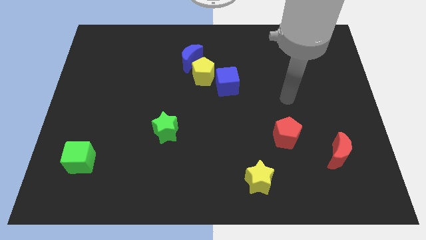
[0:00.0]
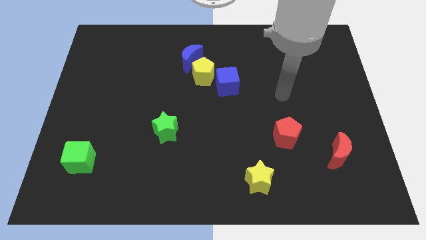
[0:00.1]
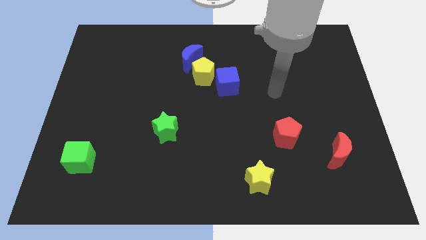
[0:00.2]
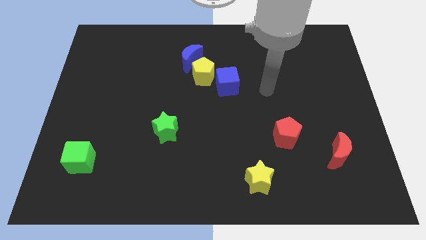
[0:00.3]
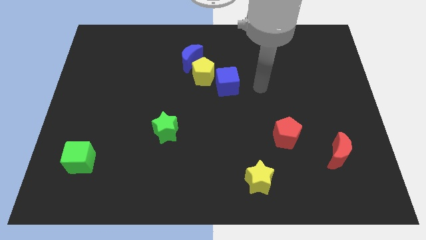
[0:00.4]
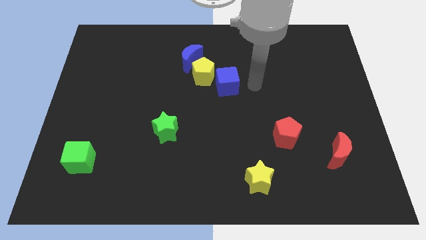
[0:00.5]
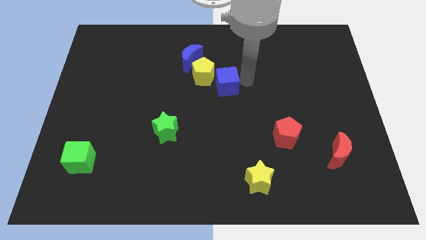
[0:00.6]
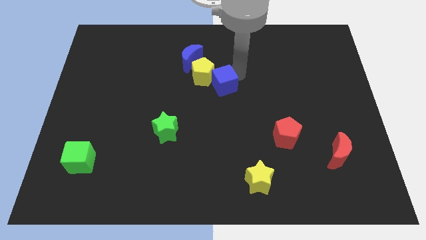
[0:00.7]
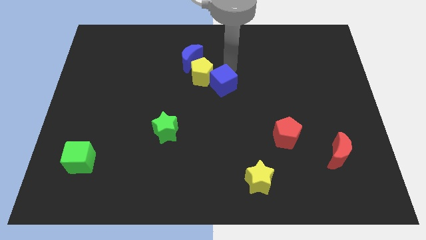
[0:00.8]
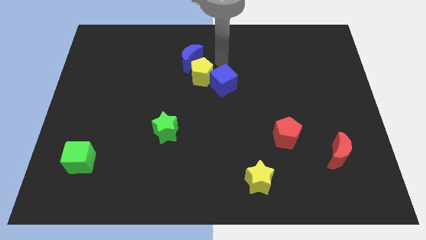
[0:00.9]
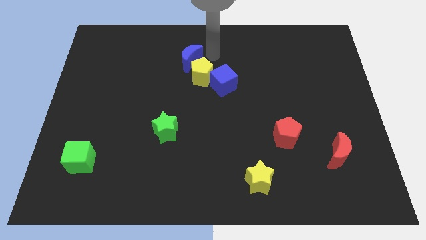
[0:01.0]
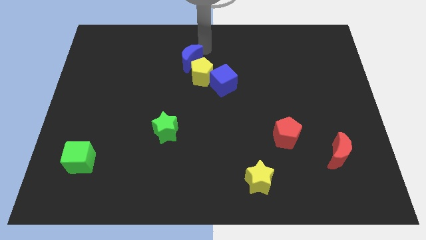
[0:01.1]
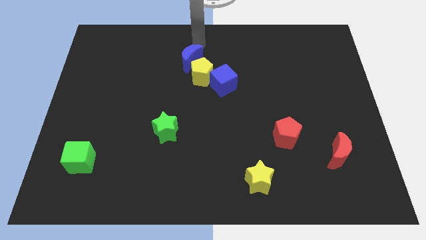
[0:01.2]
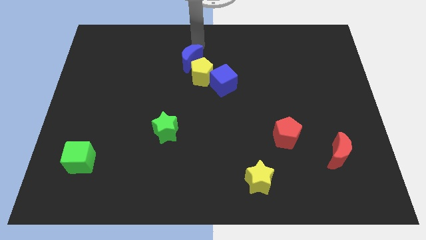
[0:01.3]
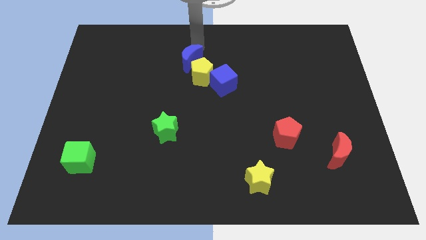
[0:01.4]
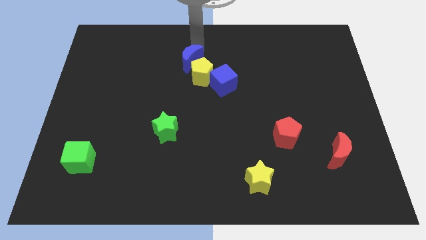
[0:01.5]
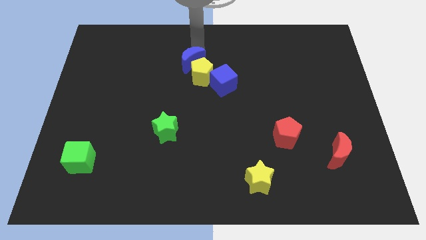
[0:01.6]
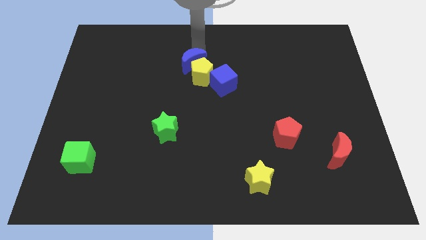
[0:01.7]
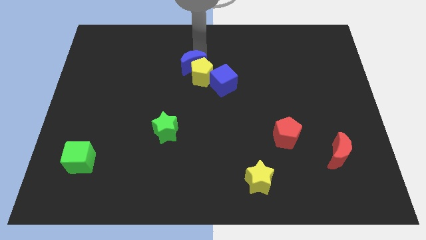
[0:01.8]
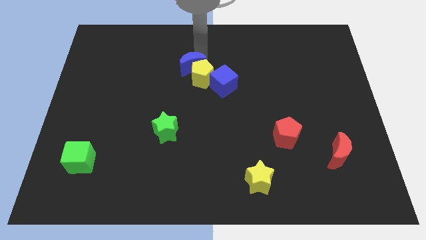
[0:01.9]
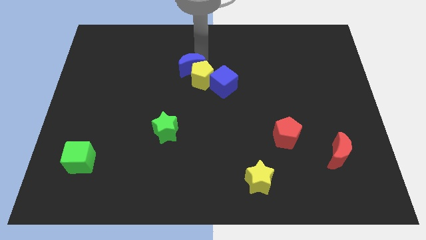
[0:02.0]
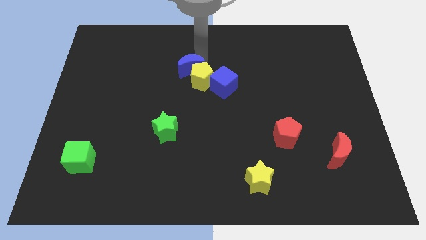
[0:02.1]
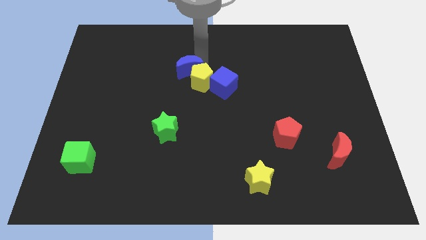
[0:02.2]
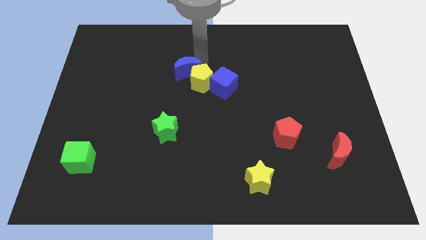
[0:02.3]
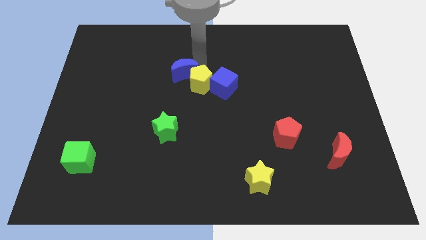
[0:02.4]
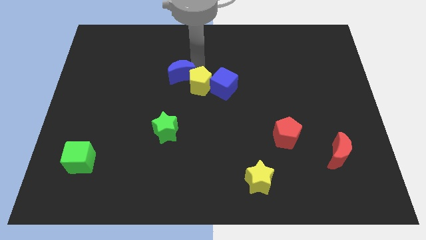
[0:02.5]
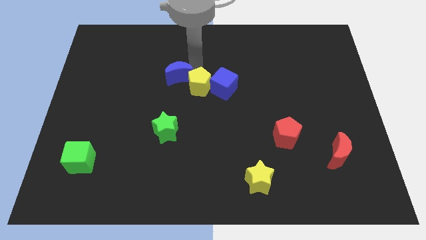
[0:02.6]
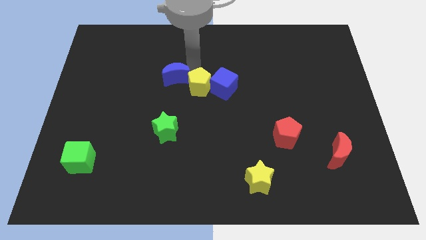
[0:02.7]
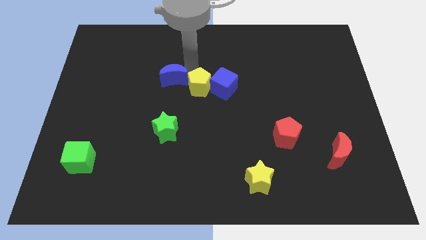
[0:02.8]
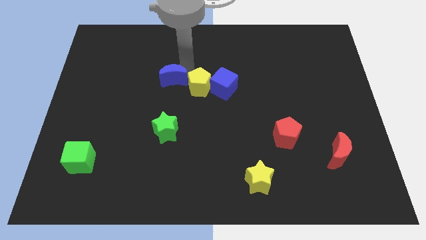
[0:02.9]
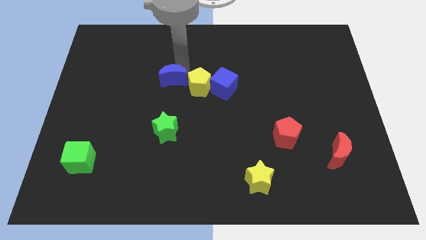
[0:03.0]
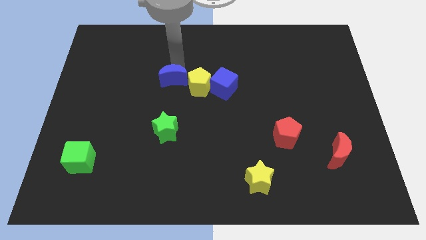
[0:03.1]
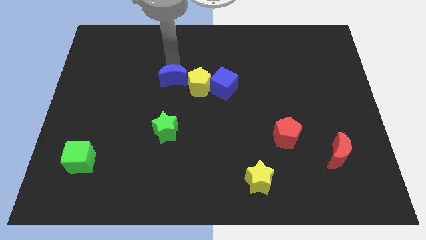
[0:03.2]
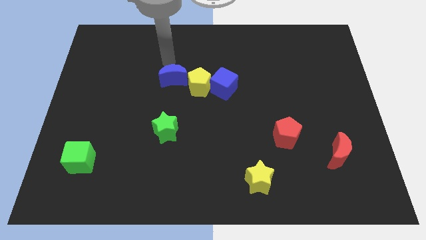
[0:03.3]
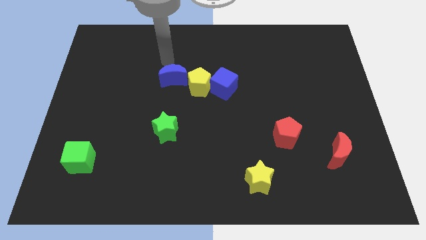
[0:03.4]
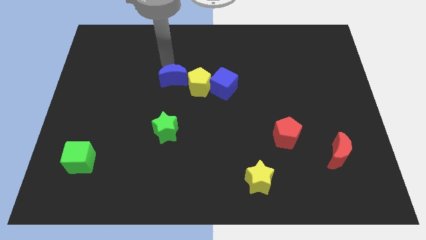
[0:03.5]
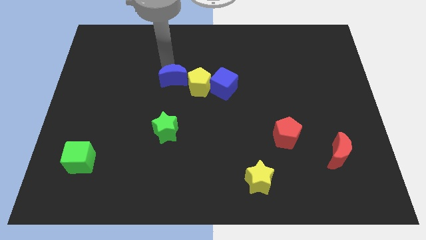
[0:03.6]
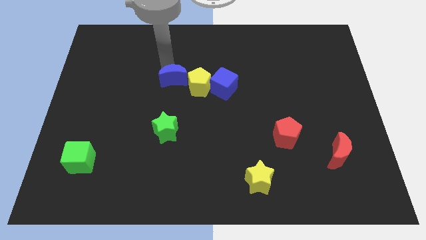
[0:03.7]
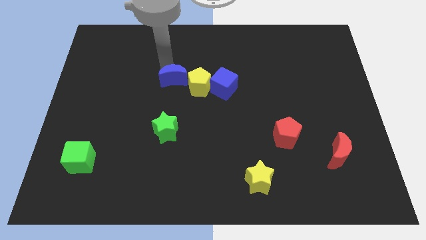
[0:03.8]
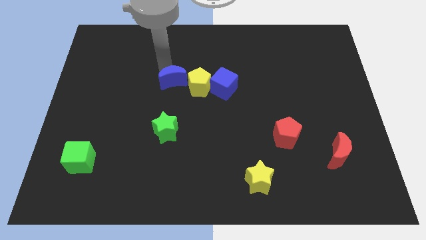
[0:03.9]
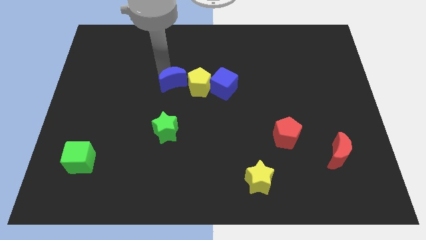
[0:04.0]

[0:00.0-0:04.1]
slide the blue moon downwards a little

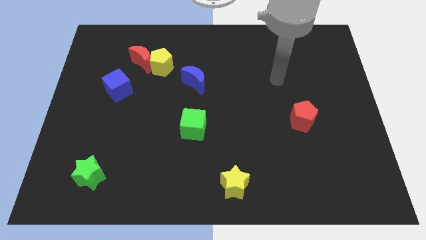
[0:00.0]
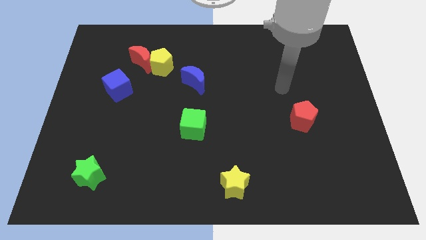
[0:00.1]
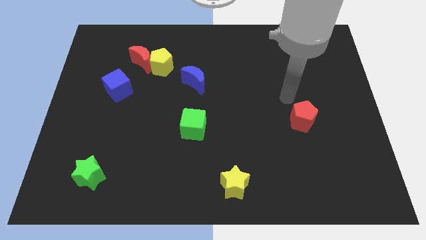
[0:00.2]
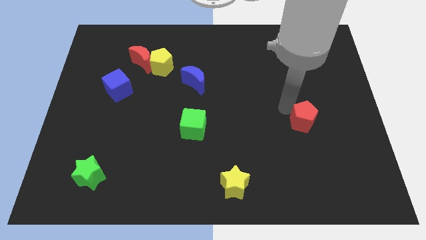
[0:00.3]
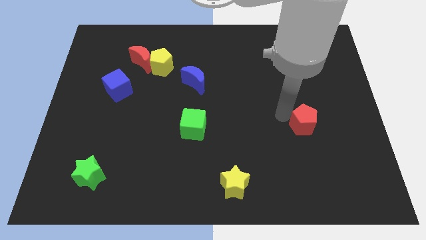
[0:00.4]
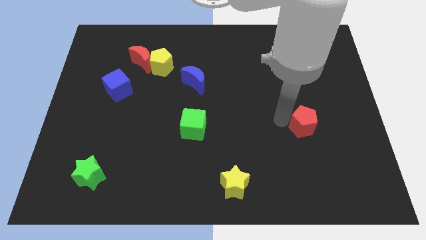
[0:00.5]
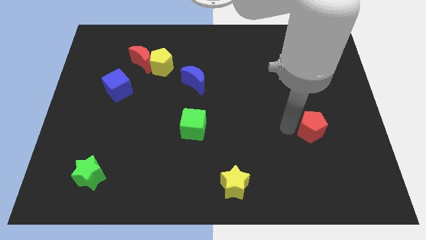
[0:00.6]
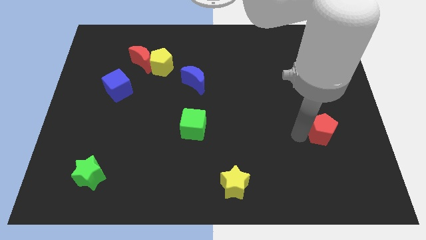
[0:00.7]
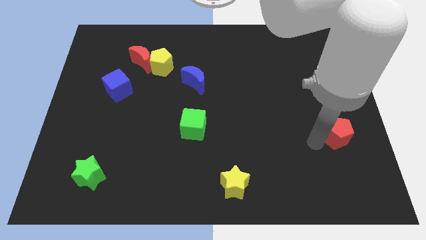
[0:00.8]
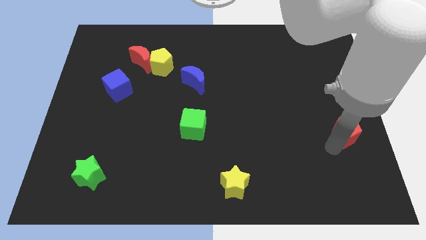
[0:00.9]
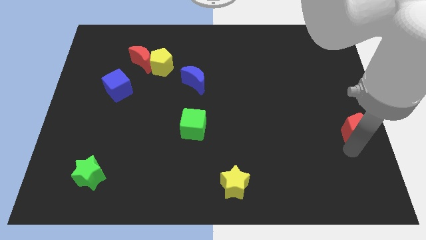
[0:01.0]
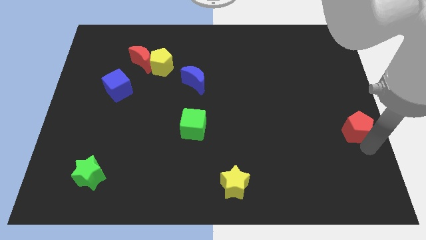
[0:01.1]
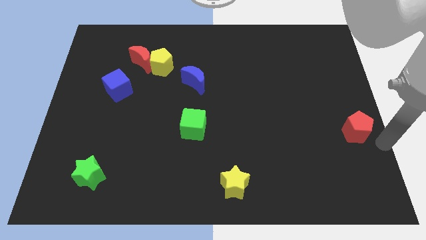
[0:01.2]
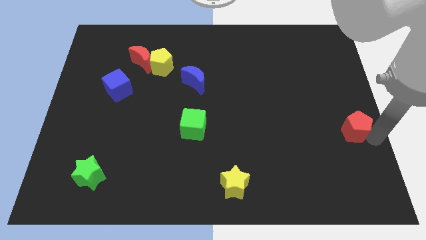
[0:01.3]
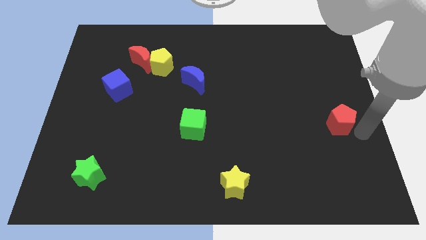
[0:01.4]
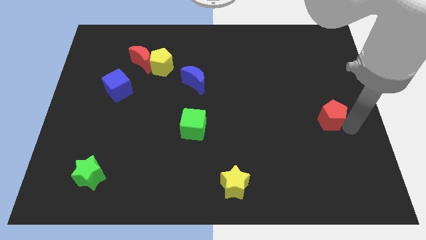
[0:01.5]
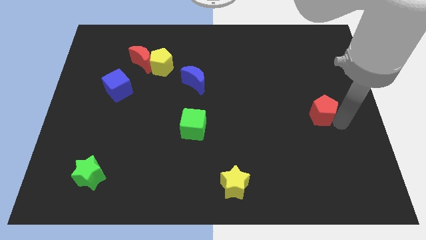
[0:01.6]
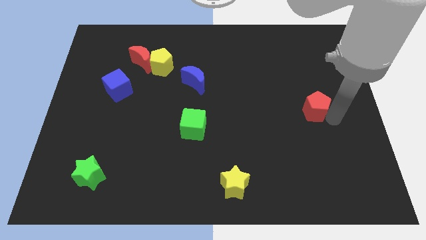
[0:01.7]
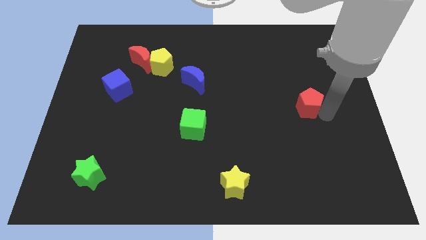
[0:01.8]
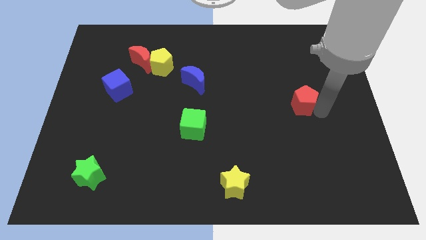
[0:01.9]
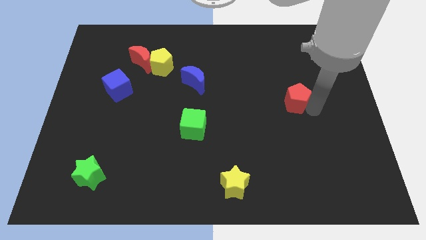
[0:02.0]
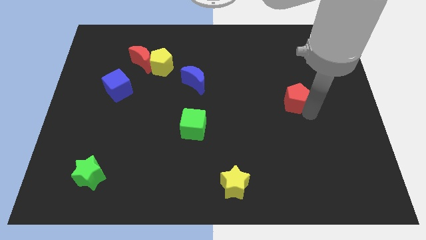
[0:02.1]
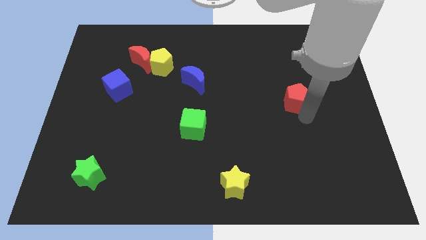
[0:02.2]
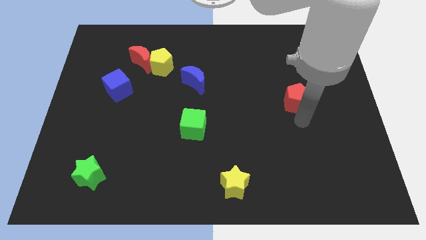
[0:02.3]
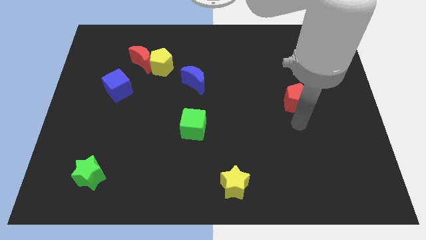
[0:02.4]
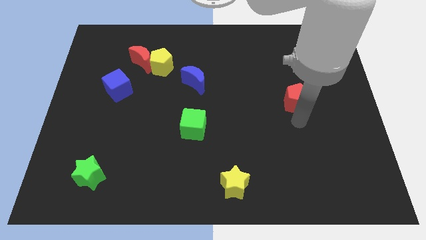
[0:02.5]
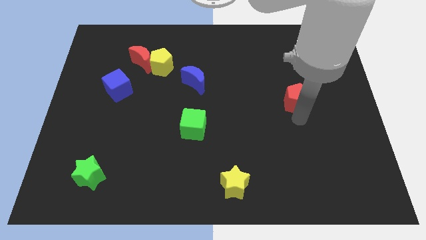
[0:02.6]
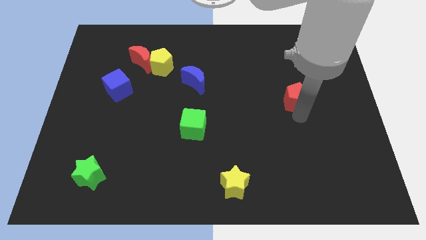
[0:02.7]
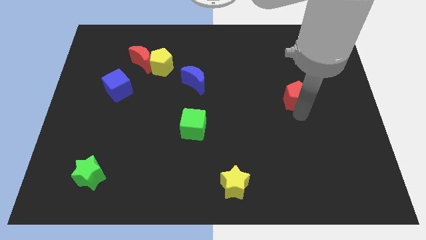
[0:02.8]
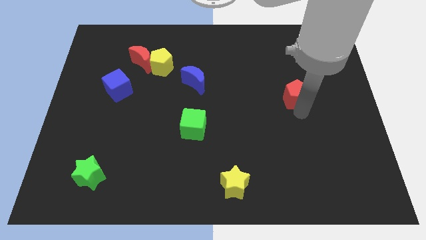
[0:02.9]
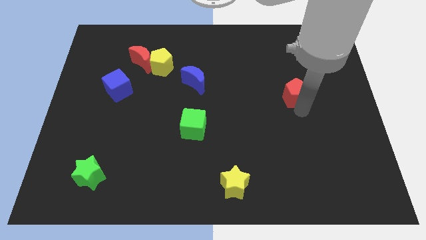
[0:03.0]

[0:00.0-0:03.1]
move the red pentagon upwards a bit

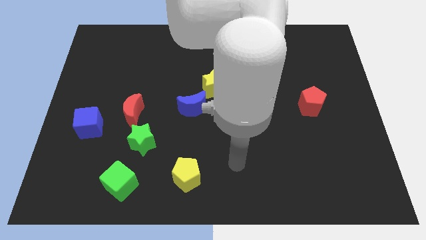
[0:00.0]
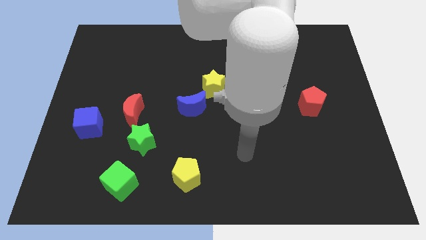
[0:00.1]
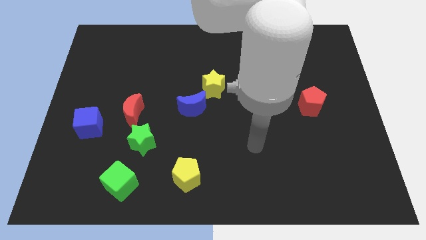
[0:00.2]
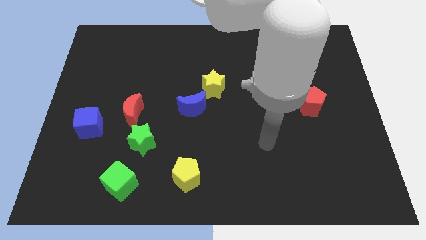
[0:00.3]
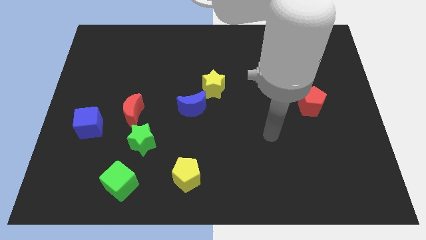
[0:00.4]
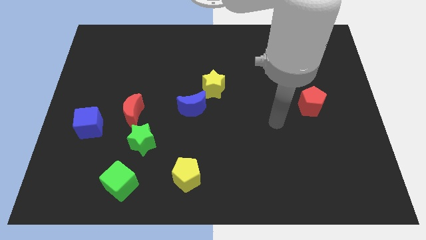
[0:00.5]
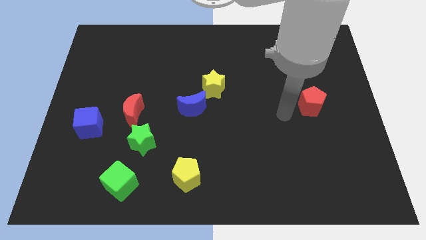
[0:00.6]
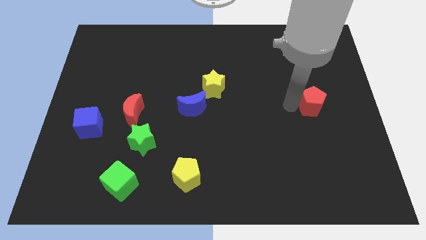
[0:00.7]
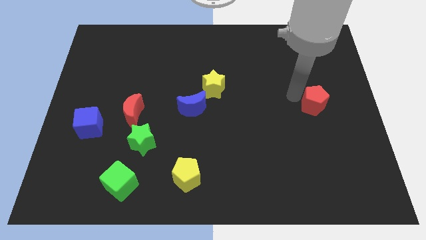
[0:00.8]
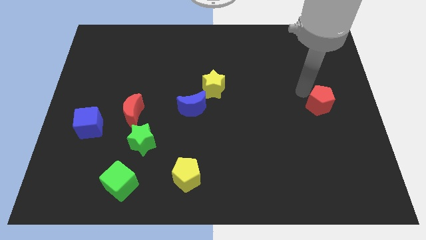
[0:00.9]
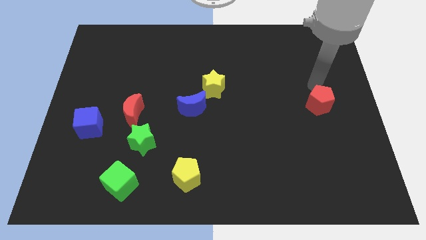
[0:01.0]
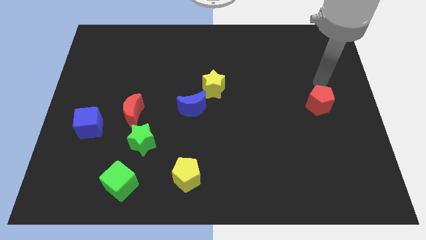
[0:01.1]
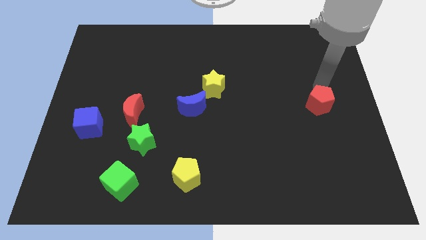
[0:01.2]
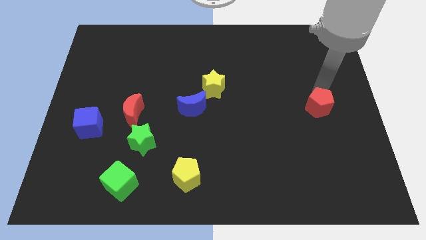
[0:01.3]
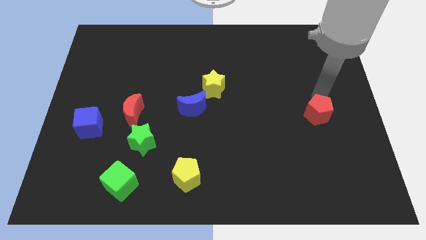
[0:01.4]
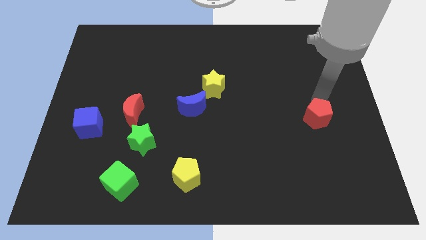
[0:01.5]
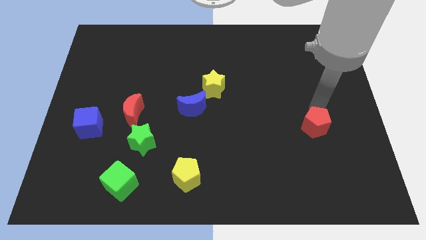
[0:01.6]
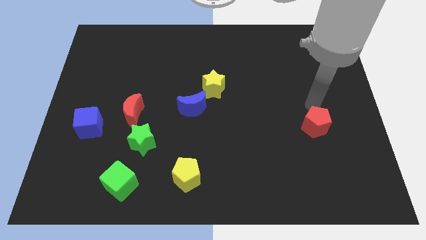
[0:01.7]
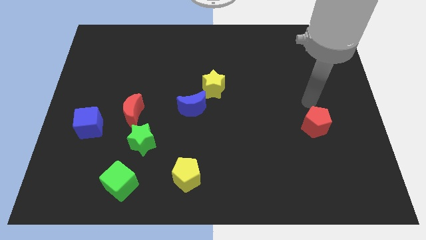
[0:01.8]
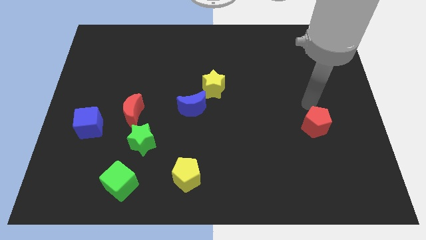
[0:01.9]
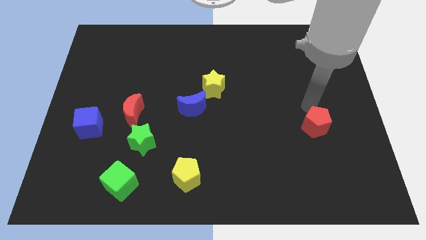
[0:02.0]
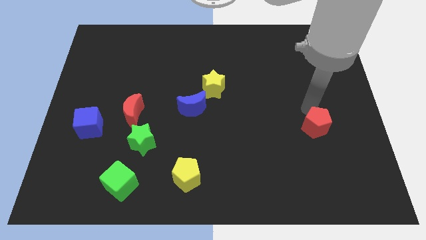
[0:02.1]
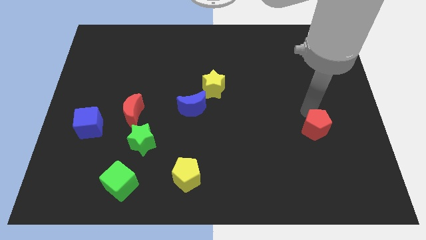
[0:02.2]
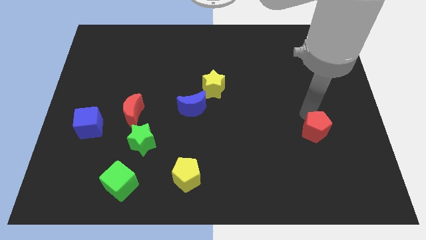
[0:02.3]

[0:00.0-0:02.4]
slightly slide the red pentagon down
